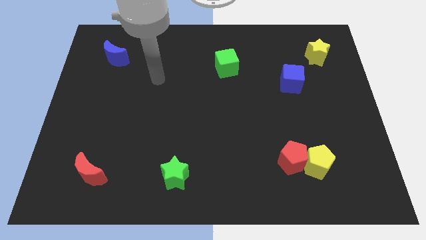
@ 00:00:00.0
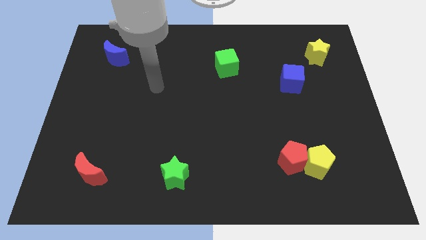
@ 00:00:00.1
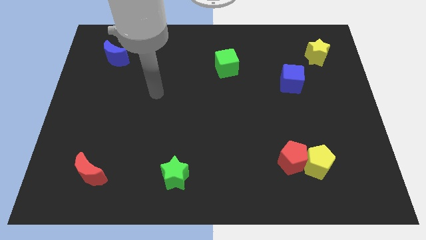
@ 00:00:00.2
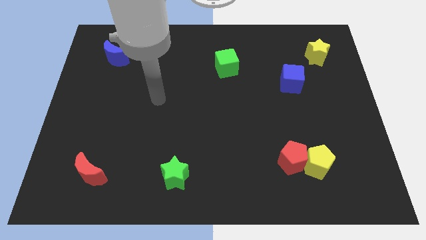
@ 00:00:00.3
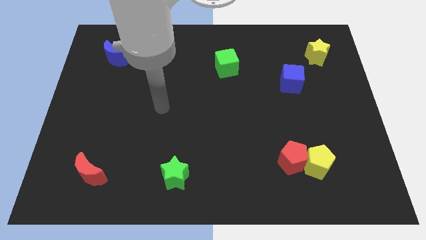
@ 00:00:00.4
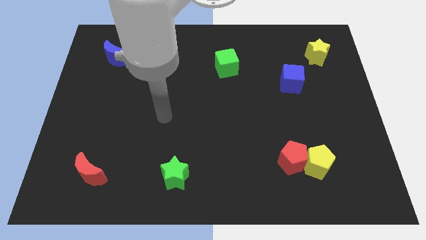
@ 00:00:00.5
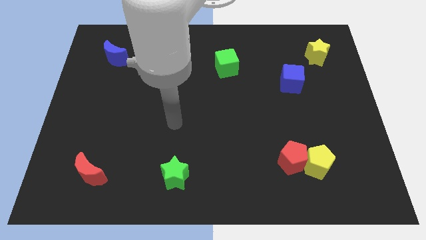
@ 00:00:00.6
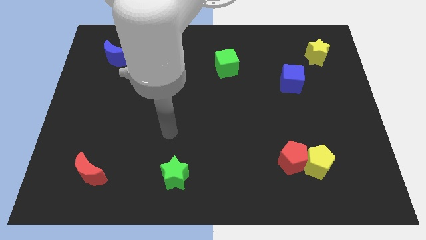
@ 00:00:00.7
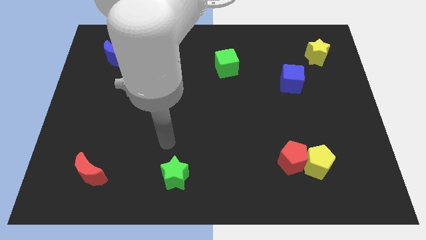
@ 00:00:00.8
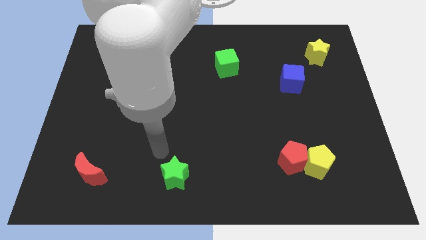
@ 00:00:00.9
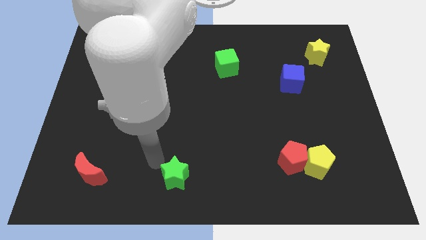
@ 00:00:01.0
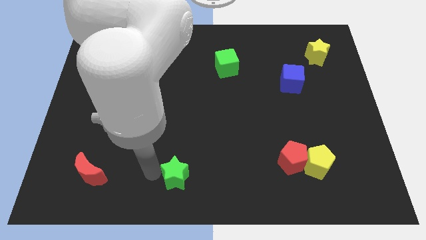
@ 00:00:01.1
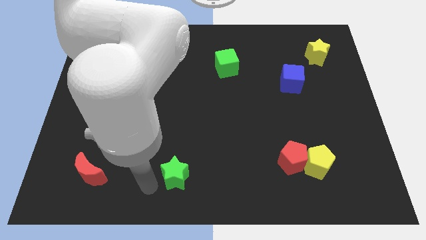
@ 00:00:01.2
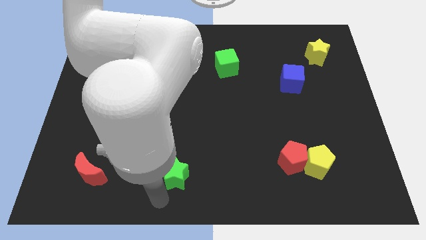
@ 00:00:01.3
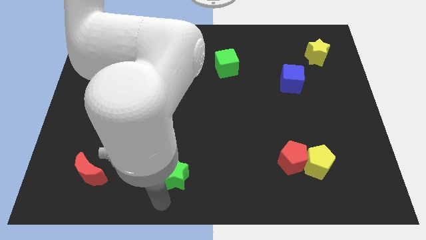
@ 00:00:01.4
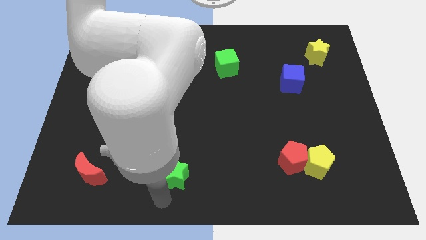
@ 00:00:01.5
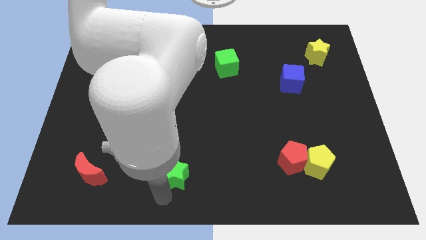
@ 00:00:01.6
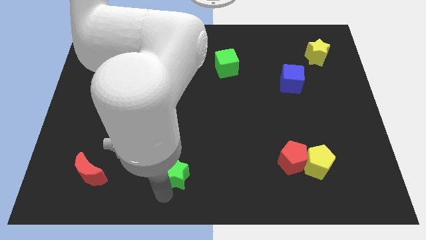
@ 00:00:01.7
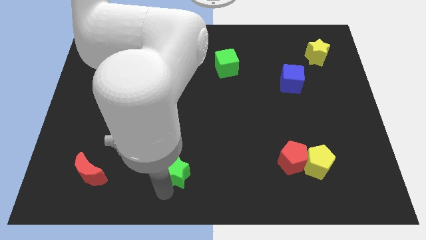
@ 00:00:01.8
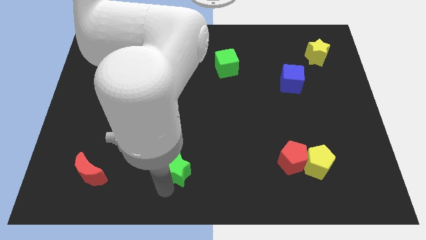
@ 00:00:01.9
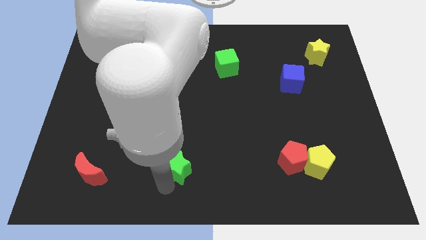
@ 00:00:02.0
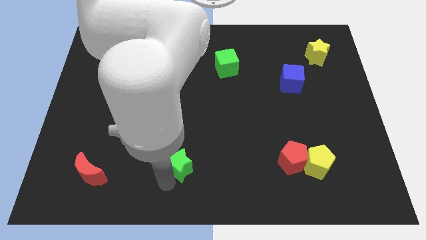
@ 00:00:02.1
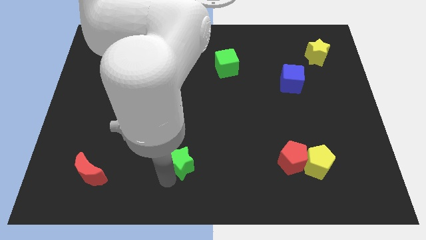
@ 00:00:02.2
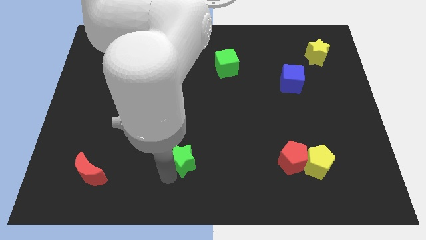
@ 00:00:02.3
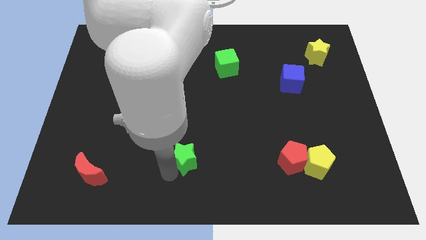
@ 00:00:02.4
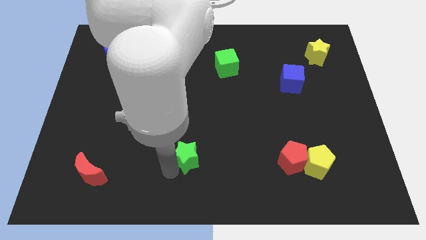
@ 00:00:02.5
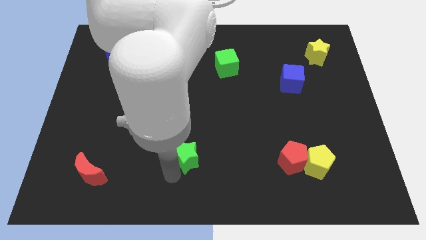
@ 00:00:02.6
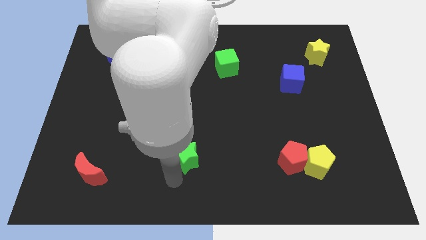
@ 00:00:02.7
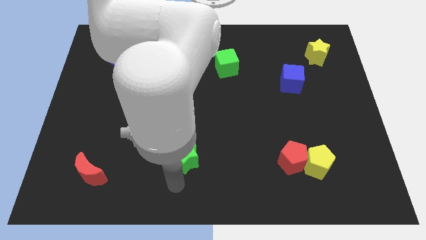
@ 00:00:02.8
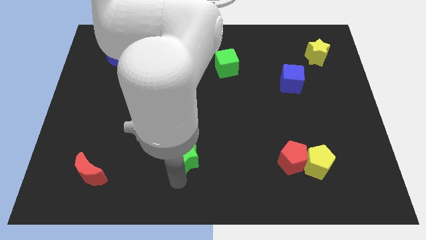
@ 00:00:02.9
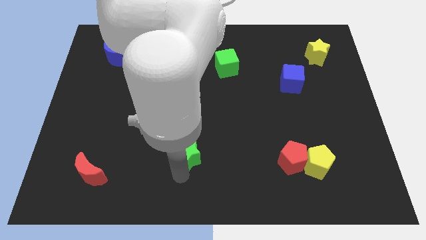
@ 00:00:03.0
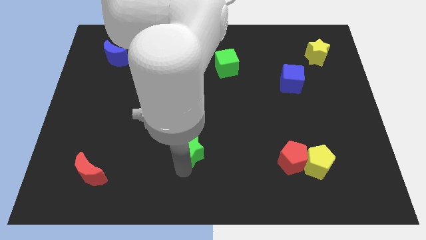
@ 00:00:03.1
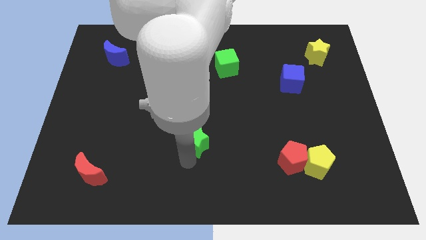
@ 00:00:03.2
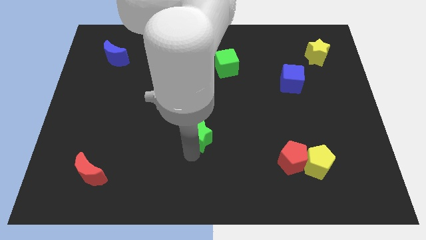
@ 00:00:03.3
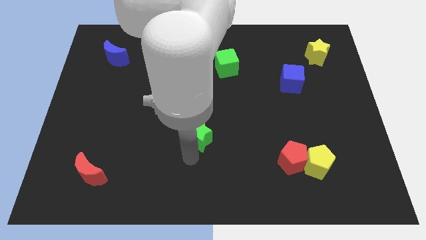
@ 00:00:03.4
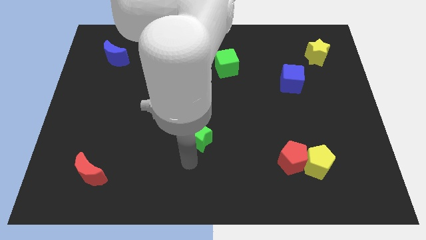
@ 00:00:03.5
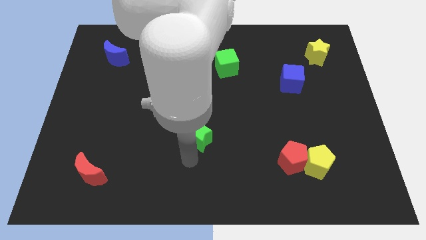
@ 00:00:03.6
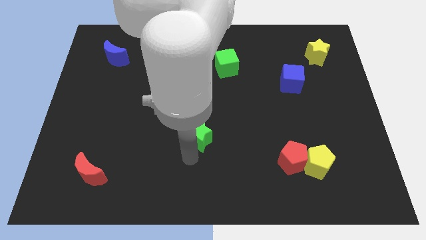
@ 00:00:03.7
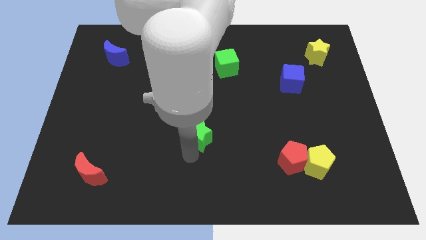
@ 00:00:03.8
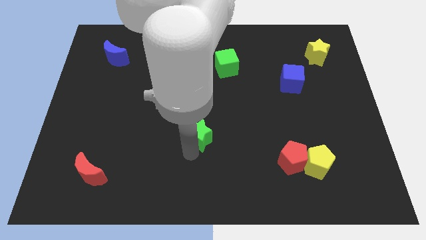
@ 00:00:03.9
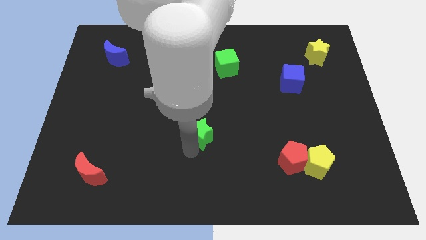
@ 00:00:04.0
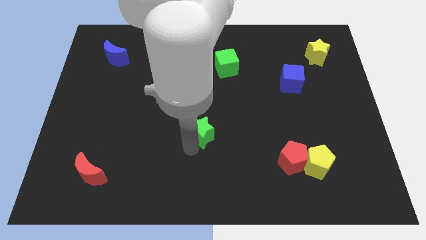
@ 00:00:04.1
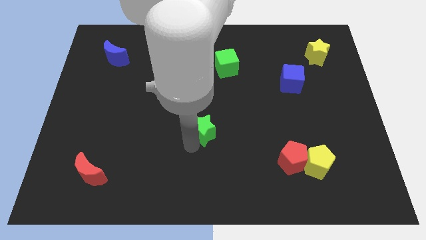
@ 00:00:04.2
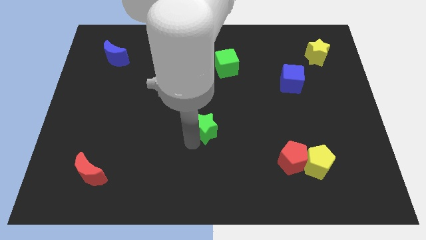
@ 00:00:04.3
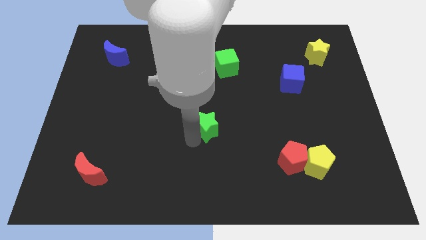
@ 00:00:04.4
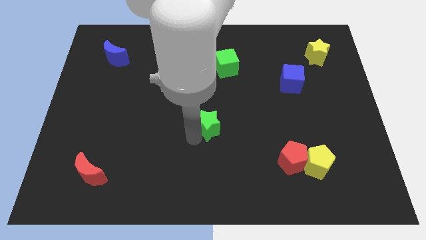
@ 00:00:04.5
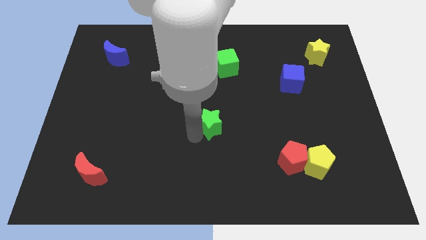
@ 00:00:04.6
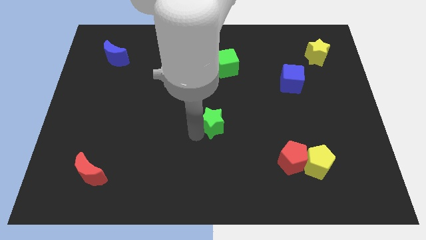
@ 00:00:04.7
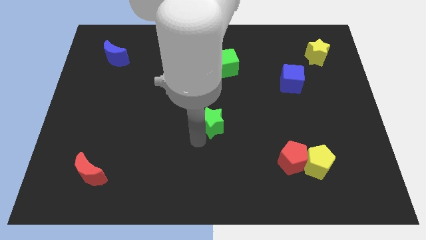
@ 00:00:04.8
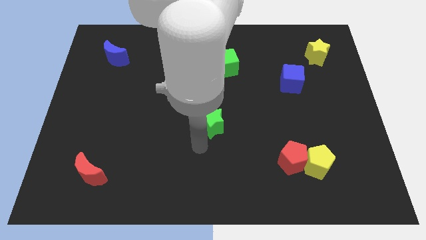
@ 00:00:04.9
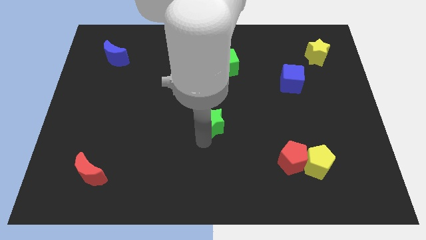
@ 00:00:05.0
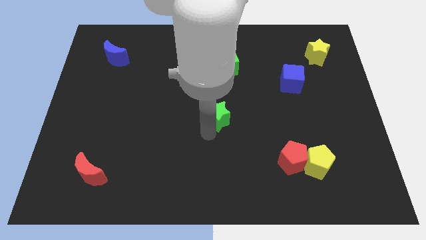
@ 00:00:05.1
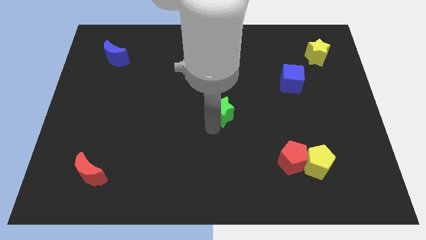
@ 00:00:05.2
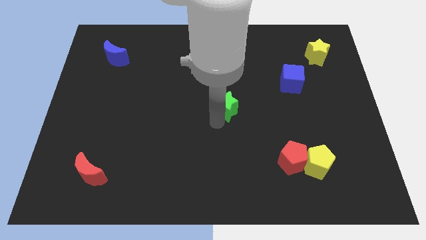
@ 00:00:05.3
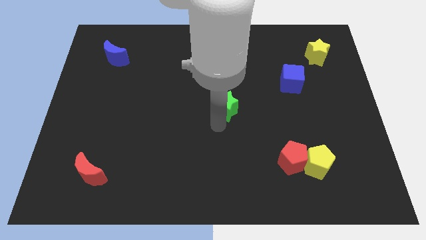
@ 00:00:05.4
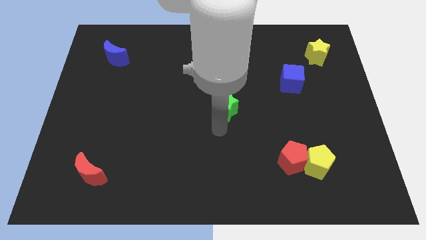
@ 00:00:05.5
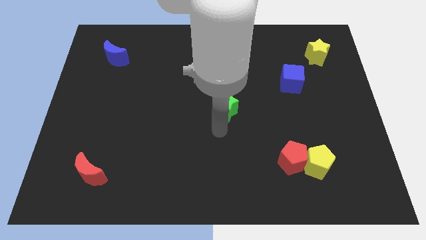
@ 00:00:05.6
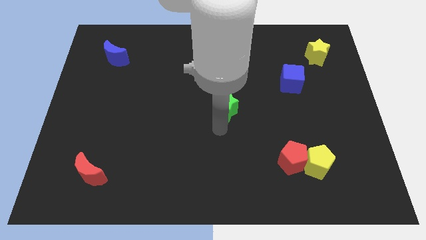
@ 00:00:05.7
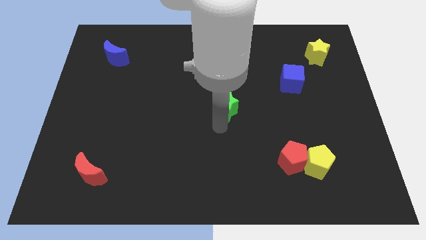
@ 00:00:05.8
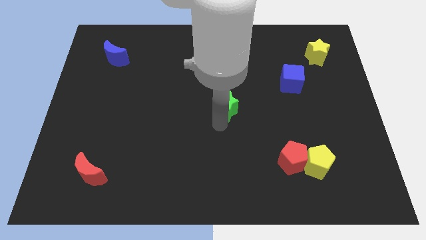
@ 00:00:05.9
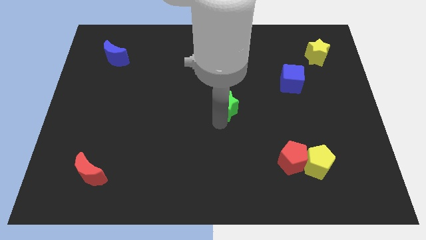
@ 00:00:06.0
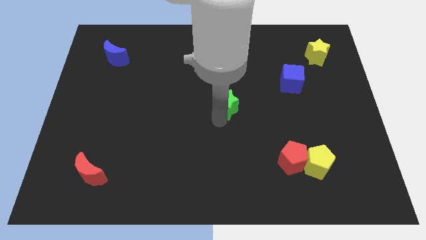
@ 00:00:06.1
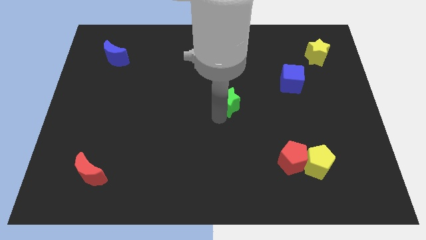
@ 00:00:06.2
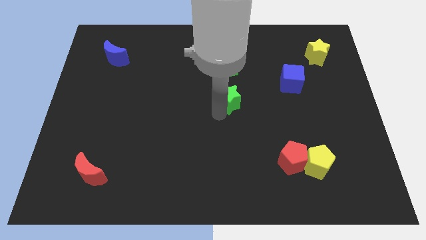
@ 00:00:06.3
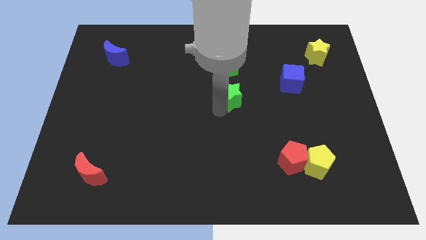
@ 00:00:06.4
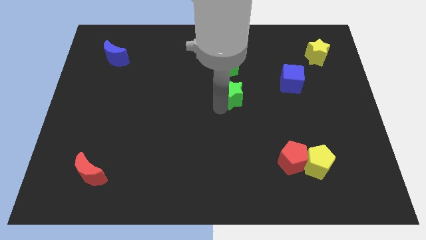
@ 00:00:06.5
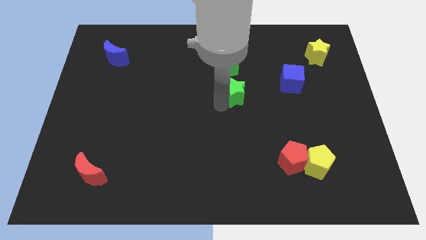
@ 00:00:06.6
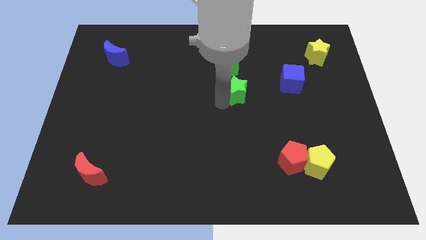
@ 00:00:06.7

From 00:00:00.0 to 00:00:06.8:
slide the green star to the left side of the blue cube

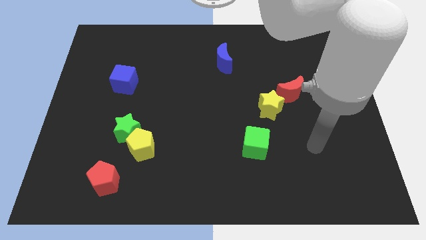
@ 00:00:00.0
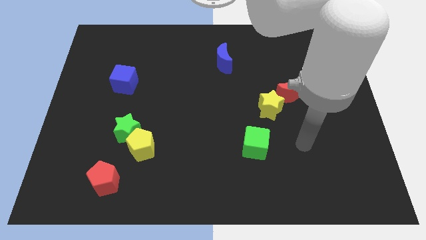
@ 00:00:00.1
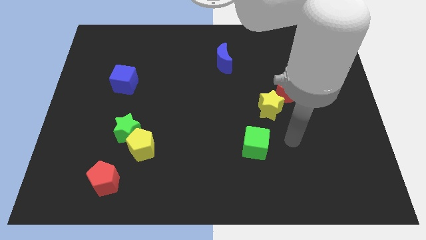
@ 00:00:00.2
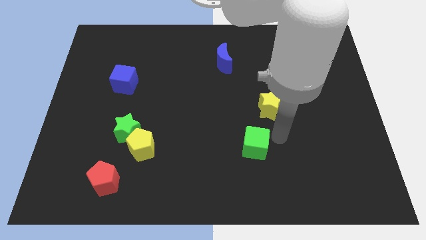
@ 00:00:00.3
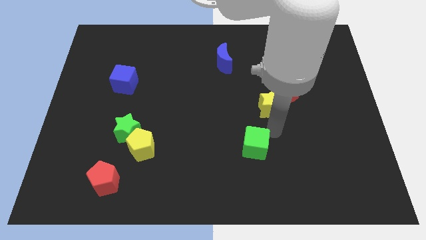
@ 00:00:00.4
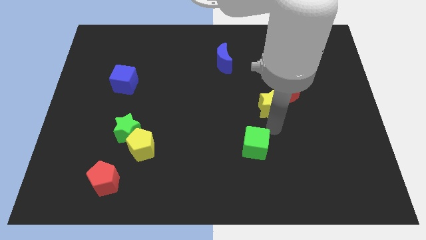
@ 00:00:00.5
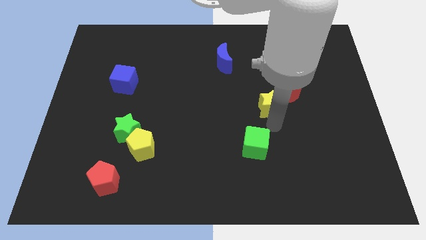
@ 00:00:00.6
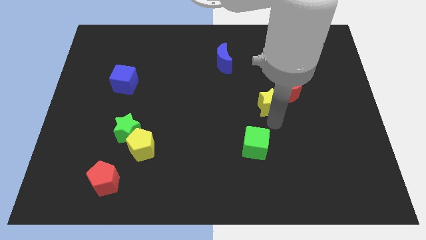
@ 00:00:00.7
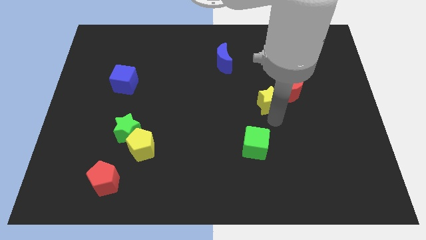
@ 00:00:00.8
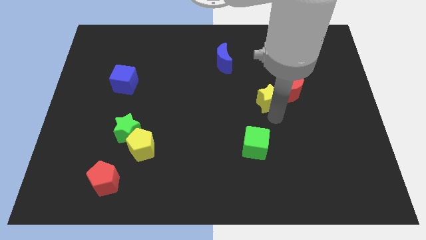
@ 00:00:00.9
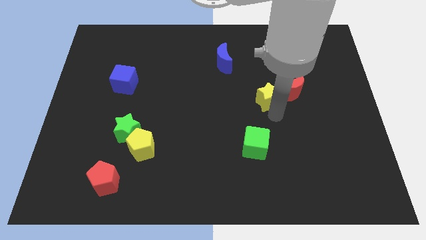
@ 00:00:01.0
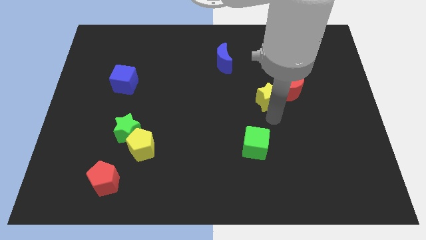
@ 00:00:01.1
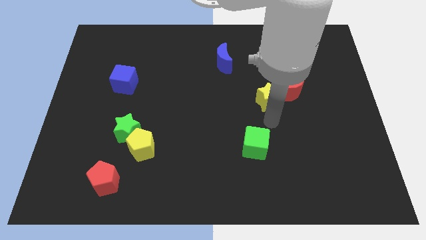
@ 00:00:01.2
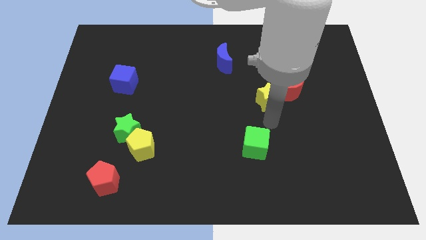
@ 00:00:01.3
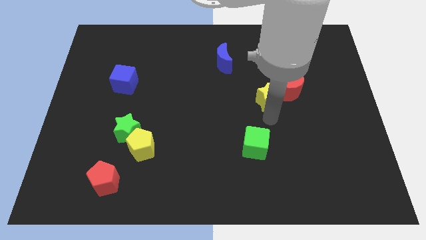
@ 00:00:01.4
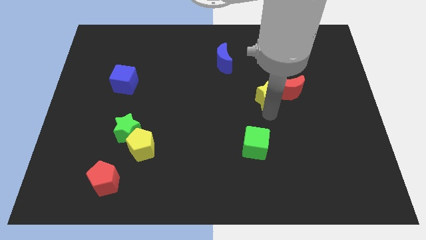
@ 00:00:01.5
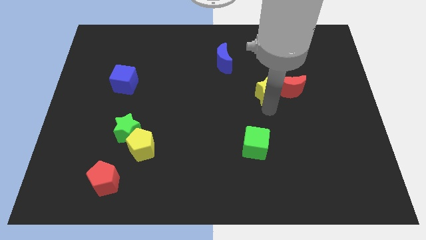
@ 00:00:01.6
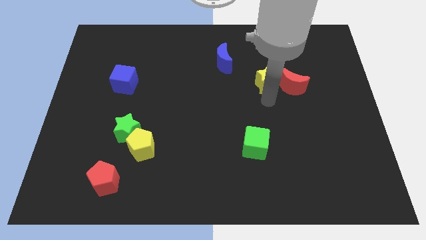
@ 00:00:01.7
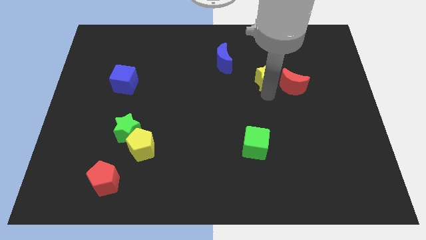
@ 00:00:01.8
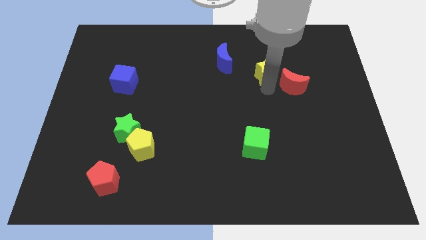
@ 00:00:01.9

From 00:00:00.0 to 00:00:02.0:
put the yellow star to the right side of the blue moon
